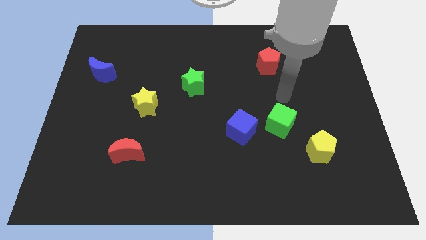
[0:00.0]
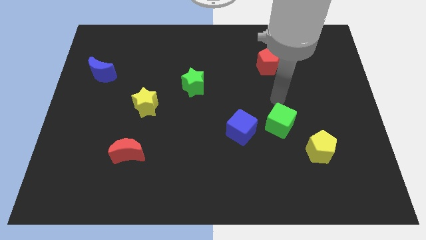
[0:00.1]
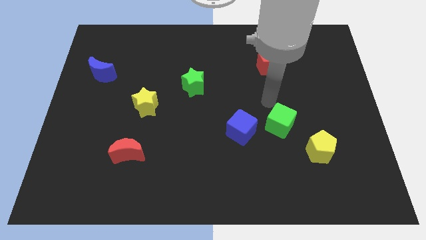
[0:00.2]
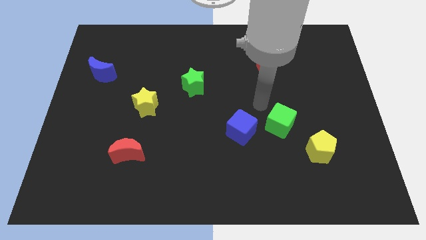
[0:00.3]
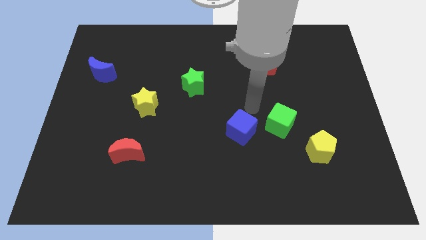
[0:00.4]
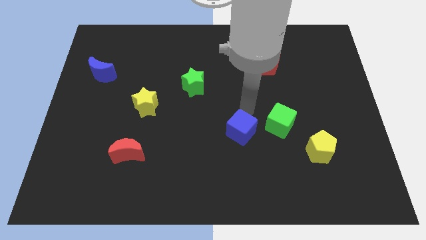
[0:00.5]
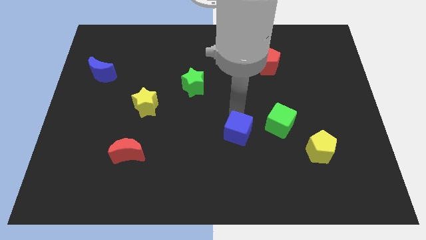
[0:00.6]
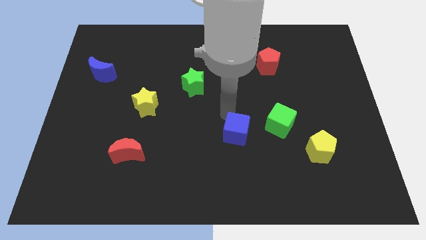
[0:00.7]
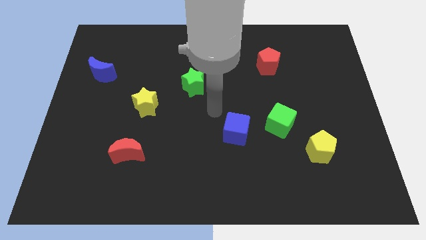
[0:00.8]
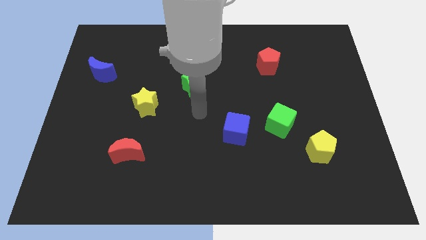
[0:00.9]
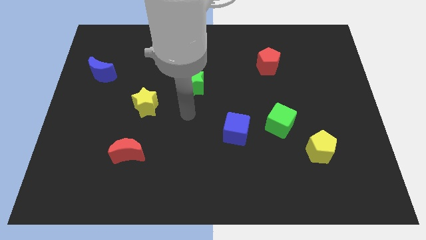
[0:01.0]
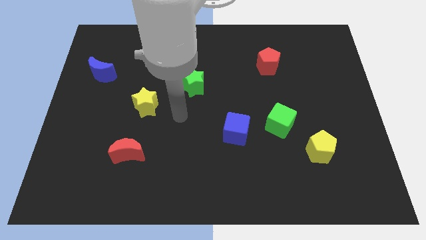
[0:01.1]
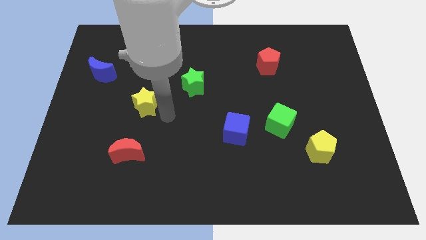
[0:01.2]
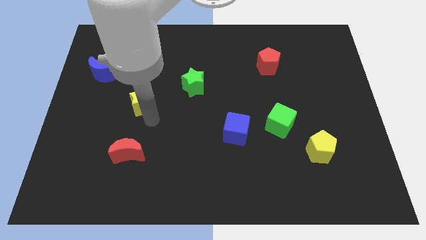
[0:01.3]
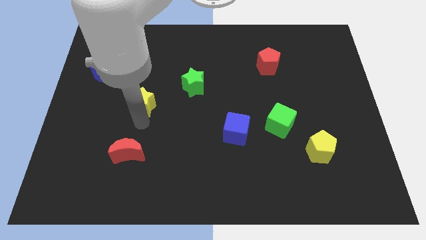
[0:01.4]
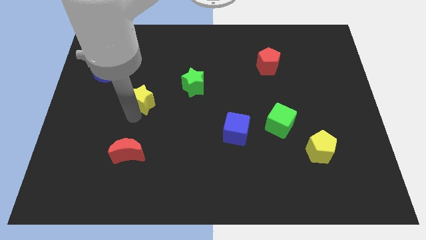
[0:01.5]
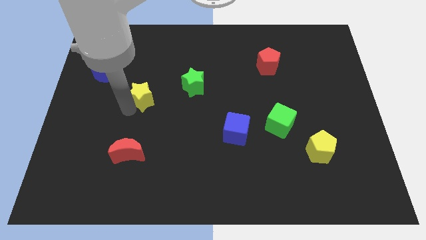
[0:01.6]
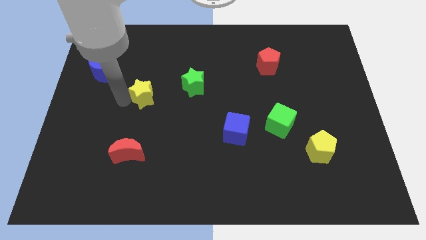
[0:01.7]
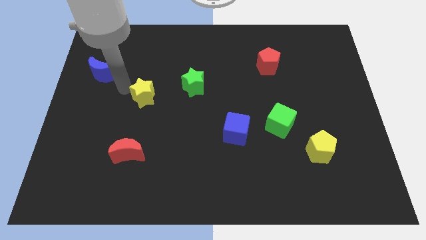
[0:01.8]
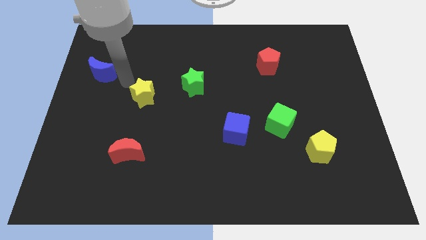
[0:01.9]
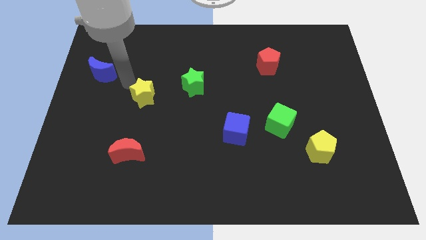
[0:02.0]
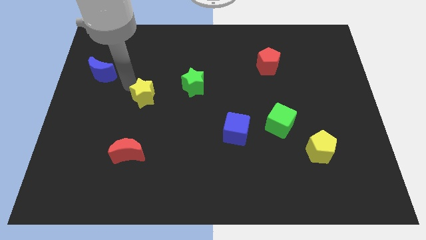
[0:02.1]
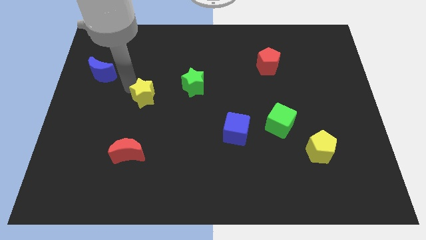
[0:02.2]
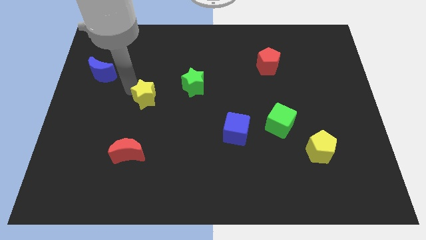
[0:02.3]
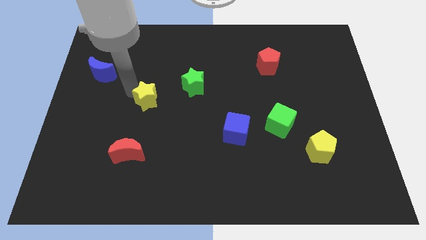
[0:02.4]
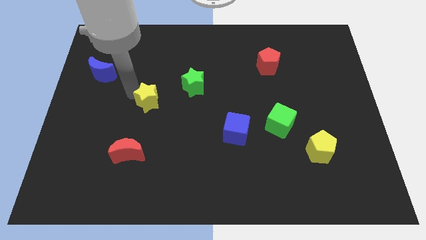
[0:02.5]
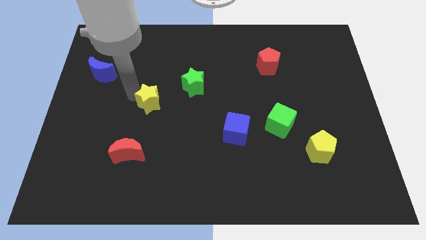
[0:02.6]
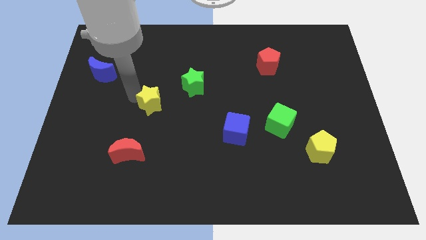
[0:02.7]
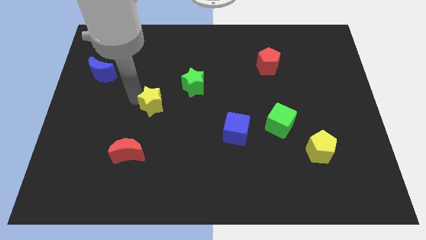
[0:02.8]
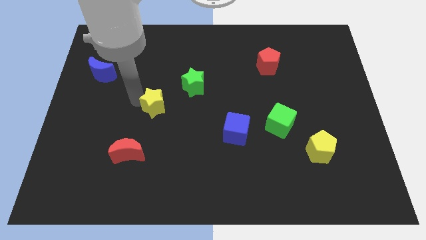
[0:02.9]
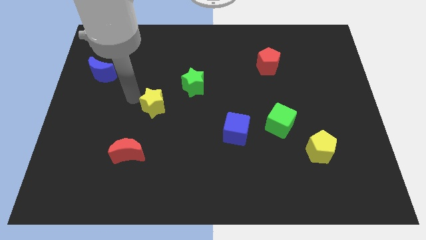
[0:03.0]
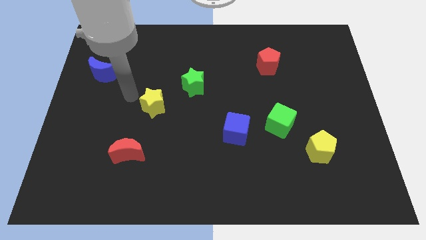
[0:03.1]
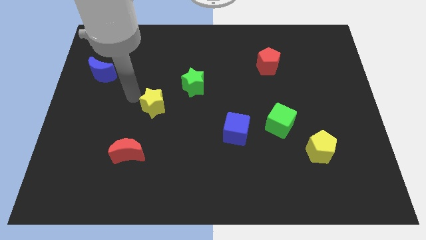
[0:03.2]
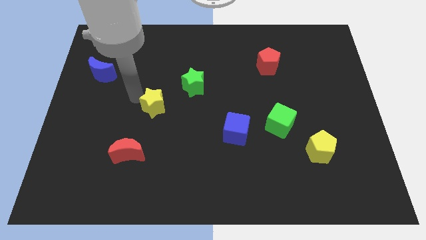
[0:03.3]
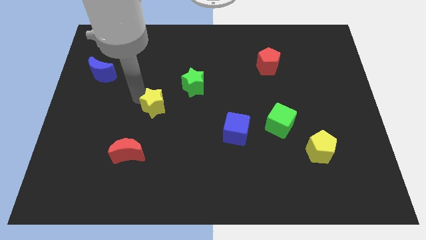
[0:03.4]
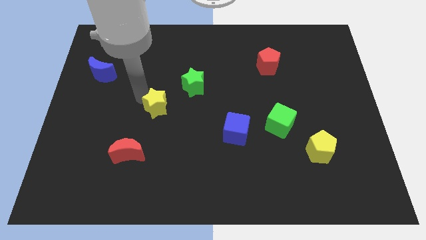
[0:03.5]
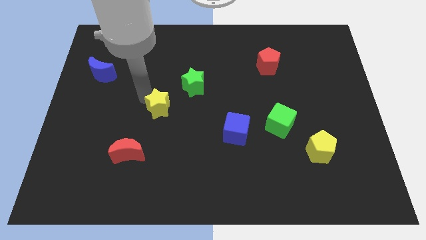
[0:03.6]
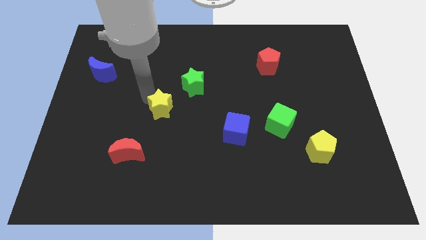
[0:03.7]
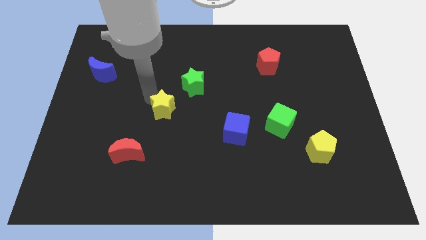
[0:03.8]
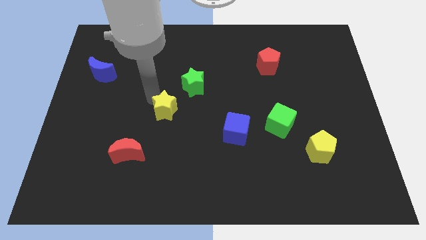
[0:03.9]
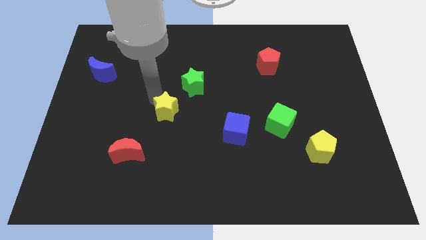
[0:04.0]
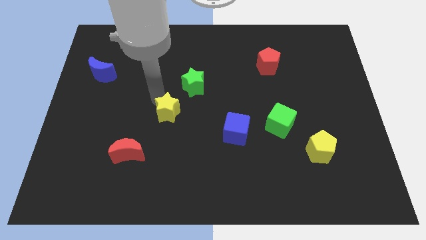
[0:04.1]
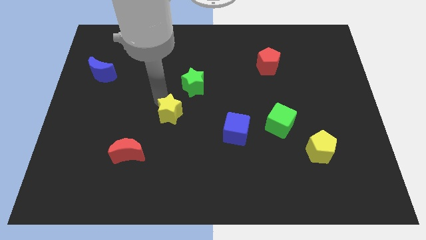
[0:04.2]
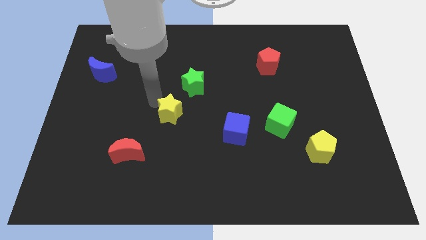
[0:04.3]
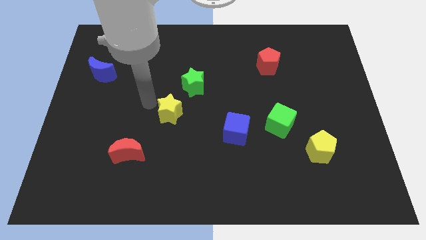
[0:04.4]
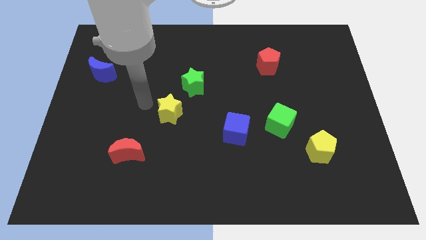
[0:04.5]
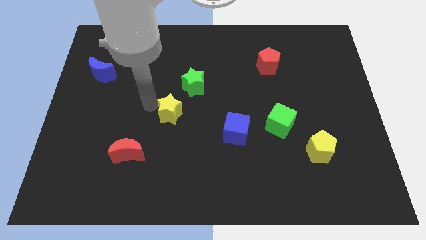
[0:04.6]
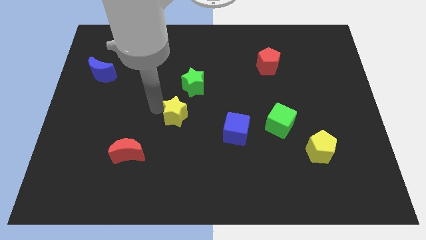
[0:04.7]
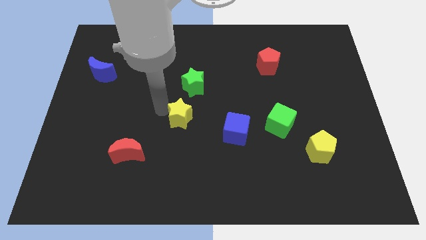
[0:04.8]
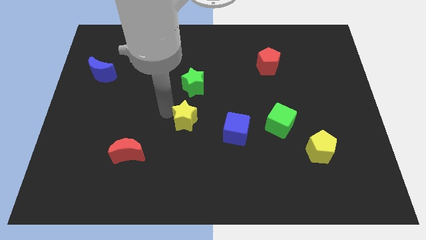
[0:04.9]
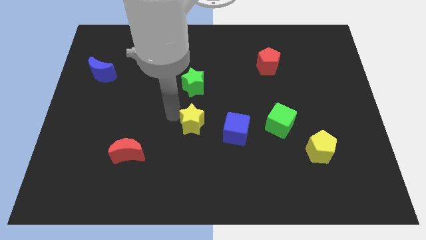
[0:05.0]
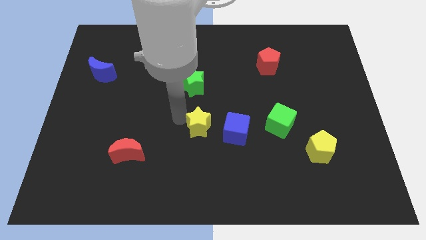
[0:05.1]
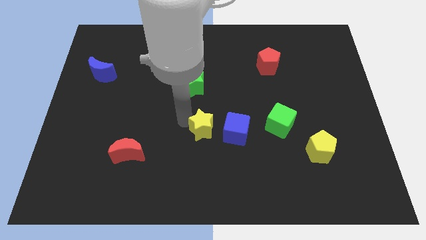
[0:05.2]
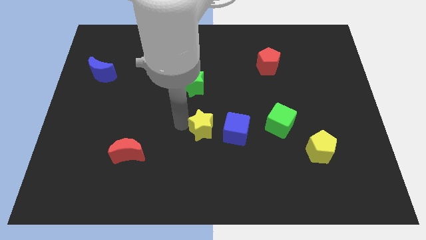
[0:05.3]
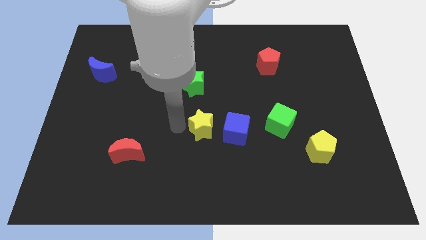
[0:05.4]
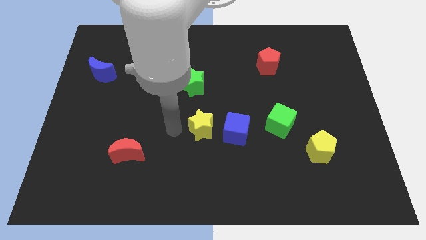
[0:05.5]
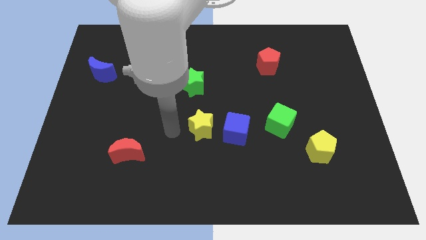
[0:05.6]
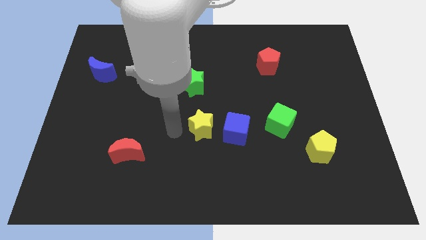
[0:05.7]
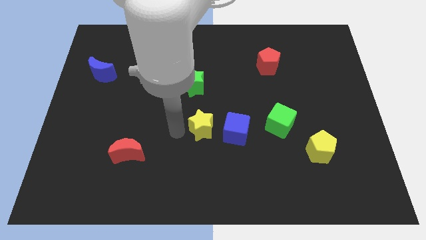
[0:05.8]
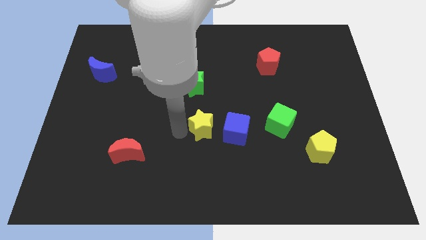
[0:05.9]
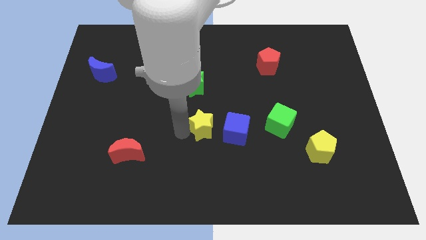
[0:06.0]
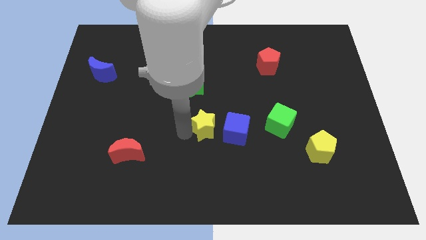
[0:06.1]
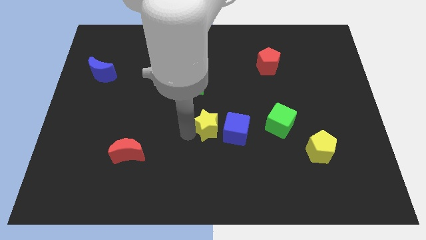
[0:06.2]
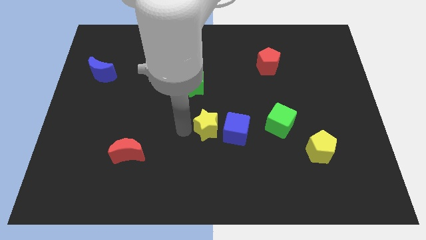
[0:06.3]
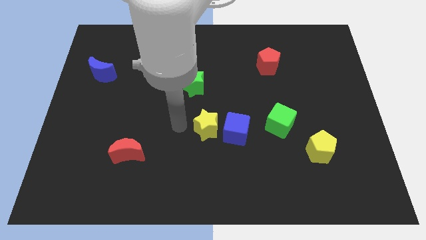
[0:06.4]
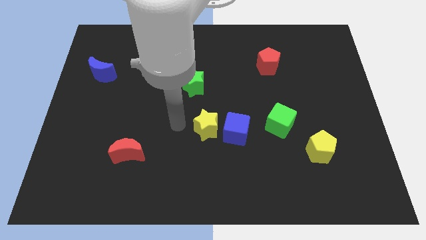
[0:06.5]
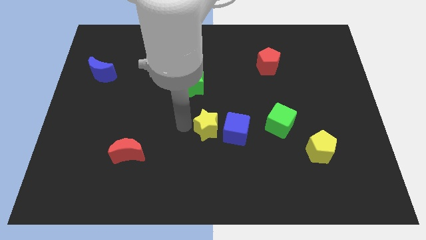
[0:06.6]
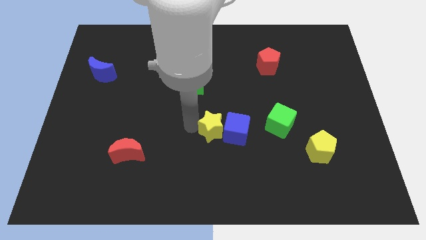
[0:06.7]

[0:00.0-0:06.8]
put the yellow star next to the blue cube
